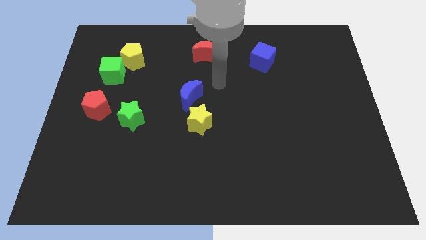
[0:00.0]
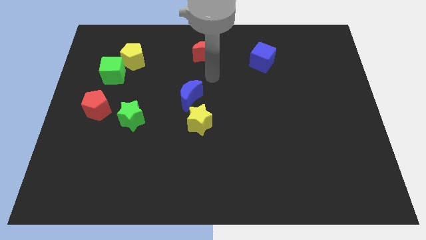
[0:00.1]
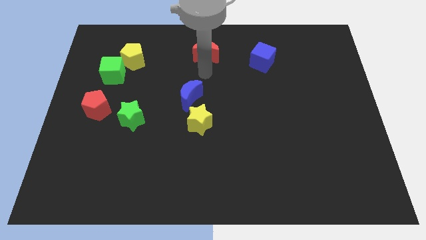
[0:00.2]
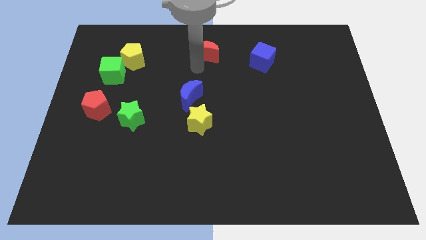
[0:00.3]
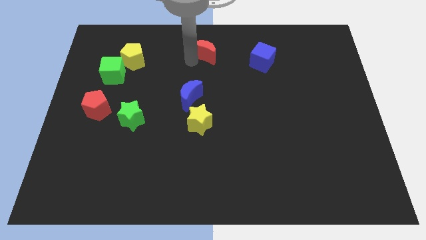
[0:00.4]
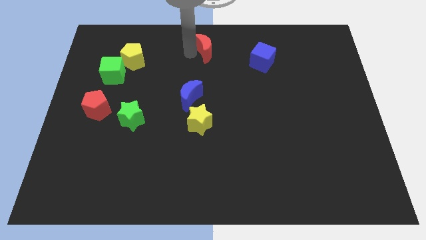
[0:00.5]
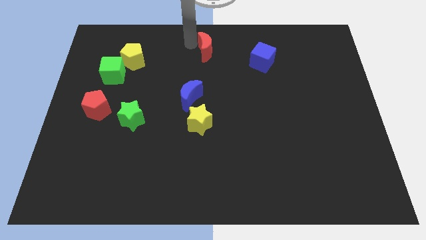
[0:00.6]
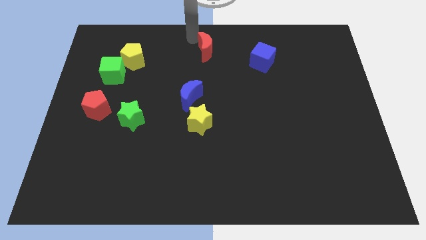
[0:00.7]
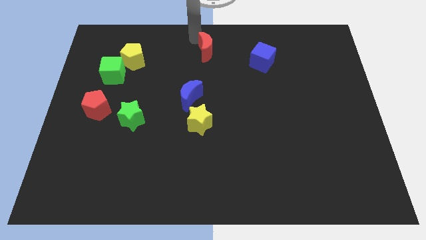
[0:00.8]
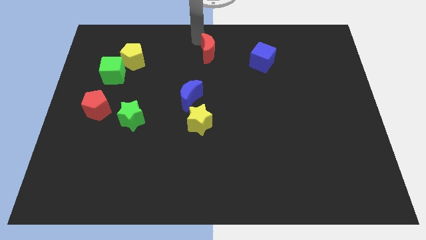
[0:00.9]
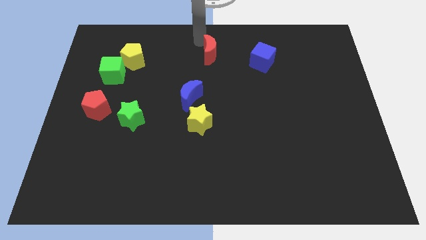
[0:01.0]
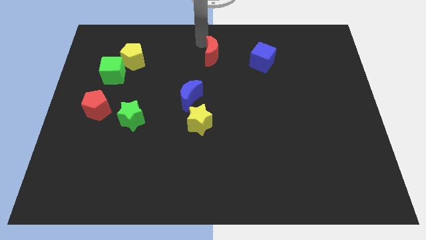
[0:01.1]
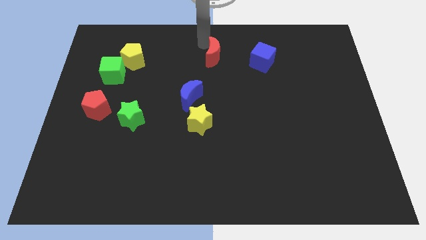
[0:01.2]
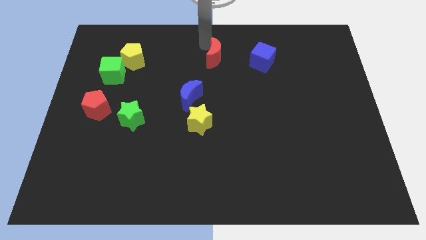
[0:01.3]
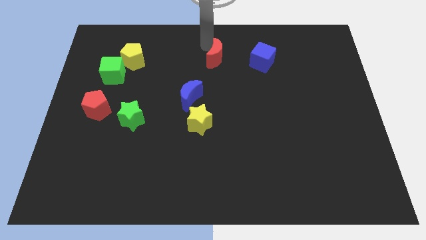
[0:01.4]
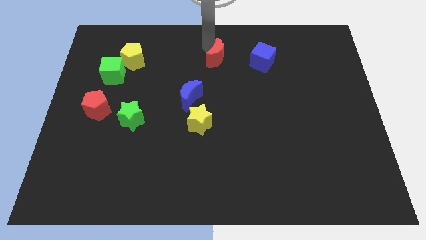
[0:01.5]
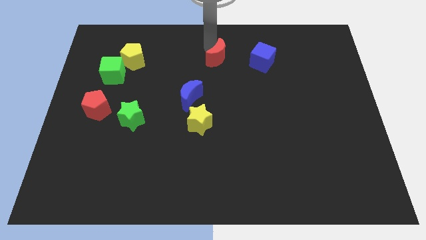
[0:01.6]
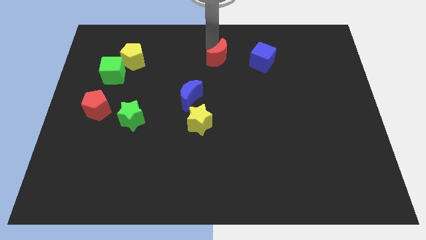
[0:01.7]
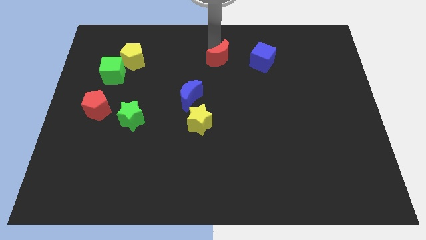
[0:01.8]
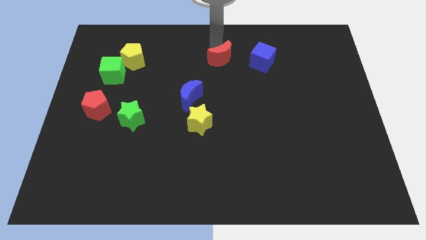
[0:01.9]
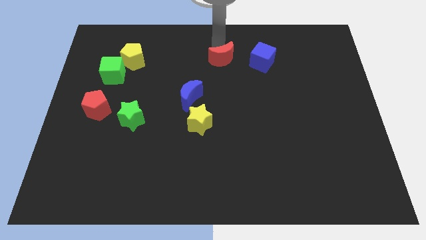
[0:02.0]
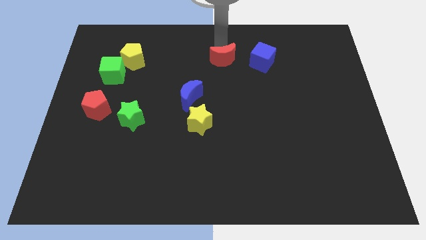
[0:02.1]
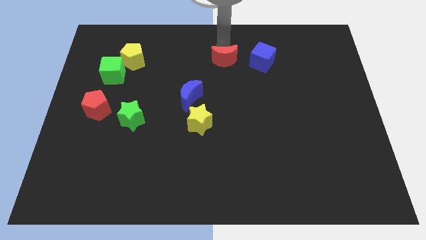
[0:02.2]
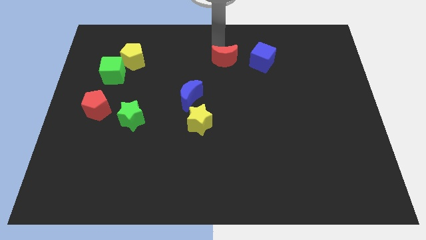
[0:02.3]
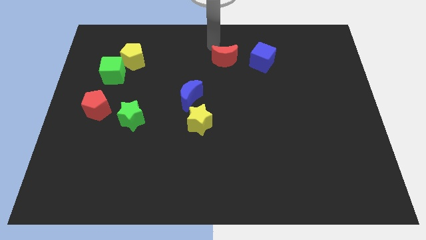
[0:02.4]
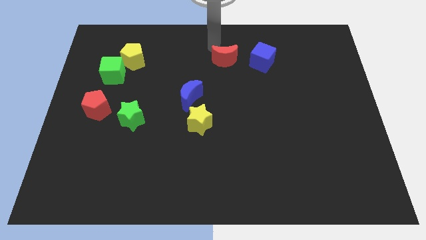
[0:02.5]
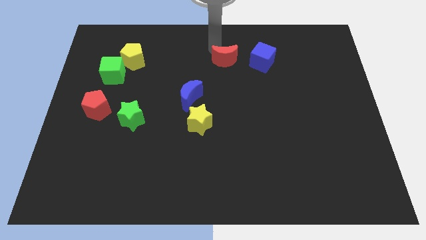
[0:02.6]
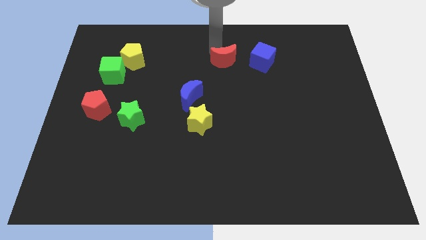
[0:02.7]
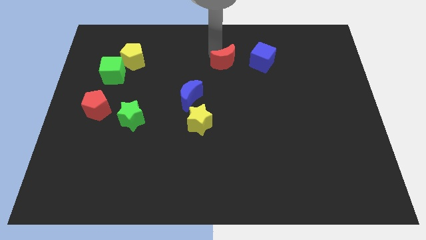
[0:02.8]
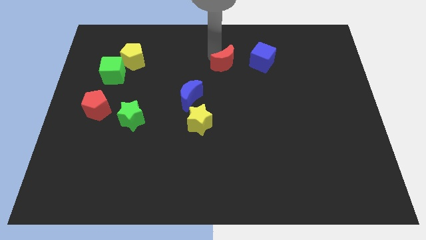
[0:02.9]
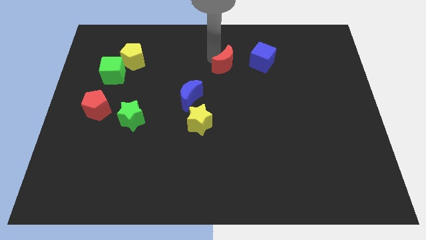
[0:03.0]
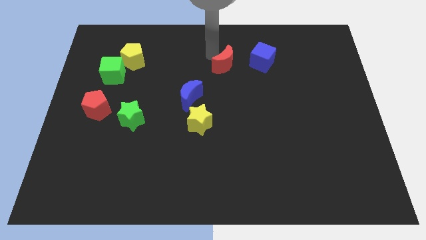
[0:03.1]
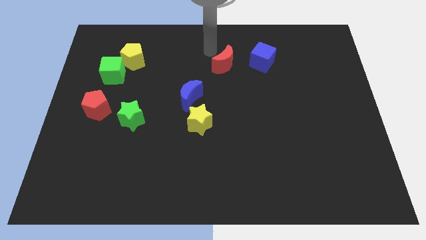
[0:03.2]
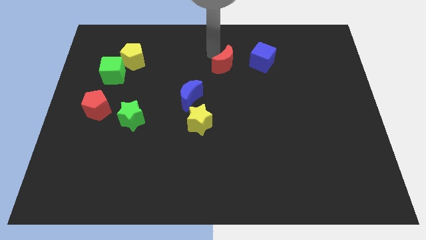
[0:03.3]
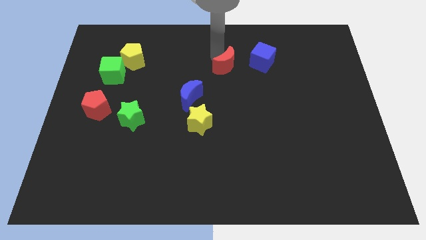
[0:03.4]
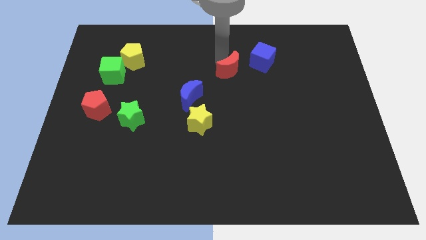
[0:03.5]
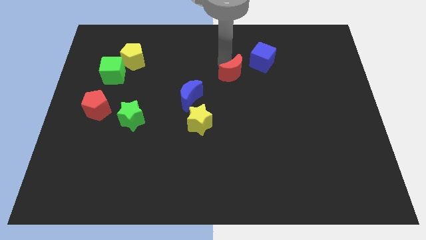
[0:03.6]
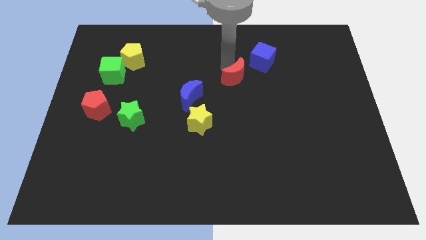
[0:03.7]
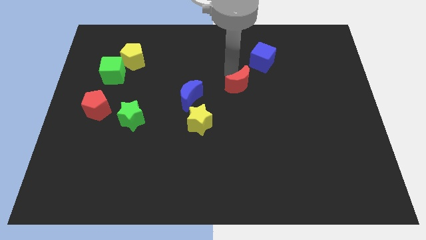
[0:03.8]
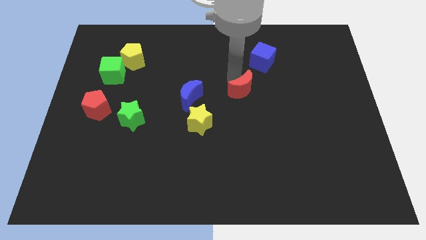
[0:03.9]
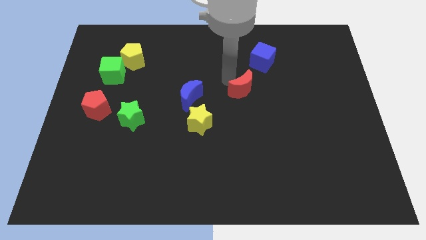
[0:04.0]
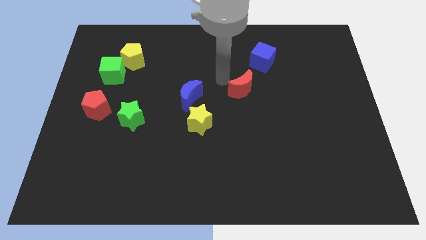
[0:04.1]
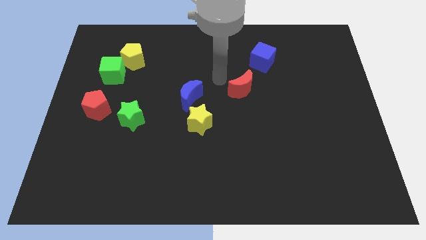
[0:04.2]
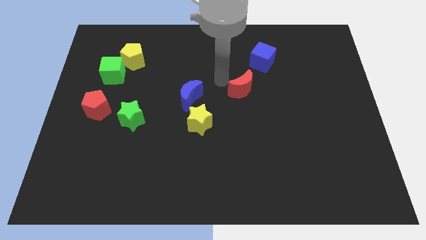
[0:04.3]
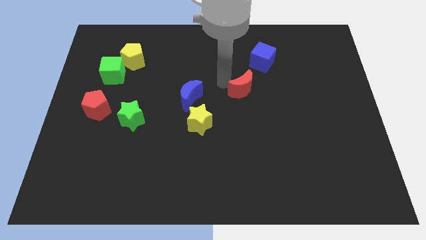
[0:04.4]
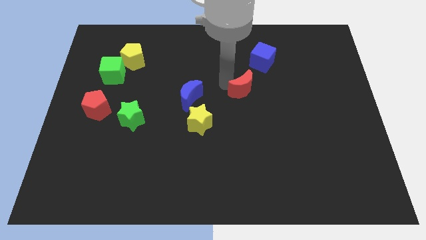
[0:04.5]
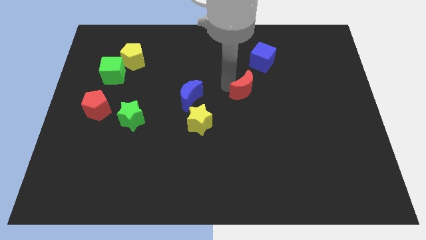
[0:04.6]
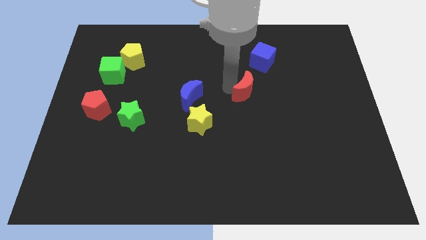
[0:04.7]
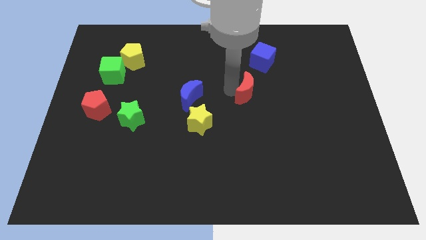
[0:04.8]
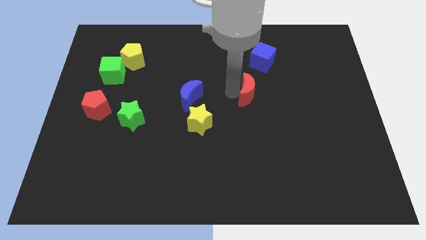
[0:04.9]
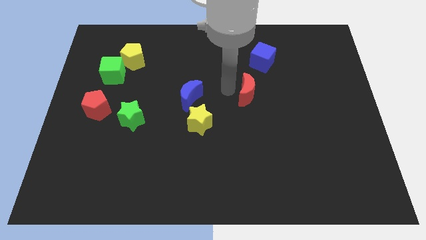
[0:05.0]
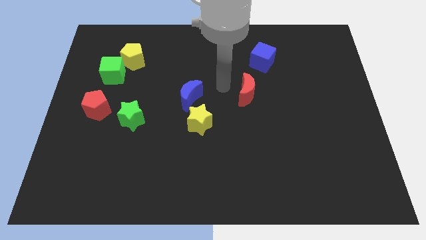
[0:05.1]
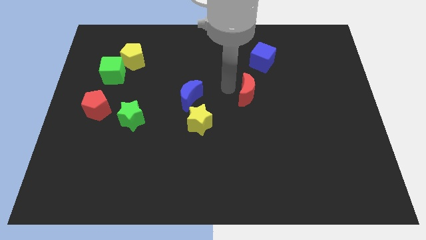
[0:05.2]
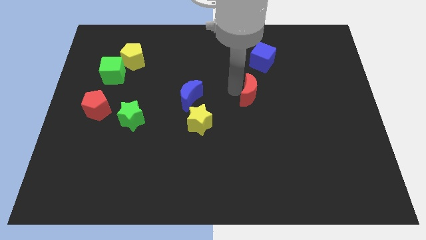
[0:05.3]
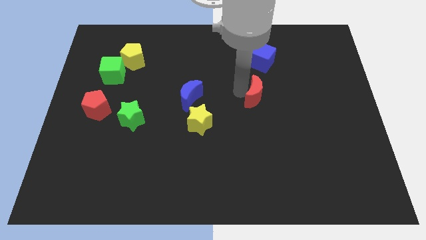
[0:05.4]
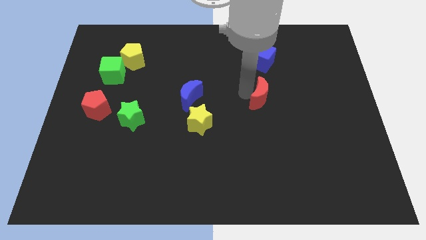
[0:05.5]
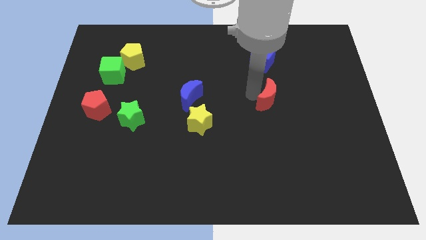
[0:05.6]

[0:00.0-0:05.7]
move the red moon downwards and right

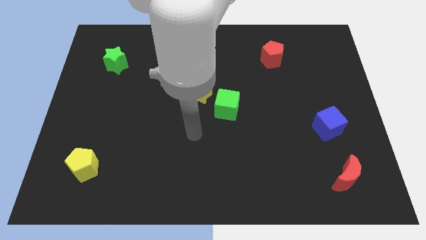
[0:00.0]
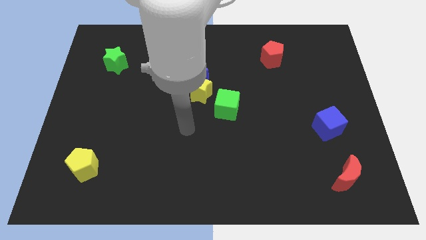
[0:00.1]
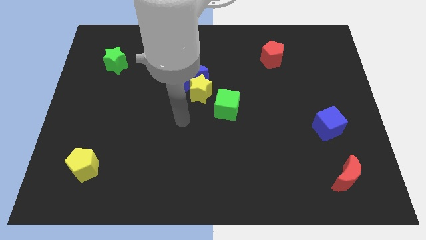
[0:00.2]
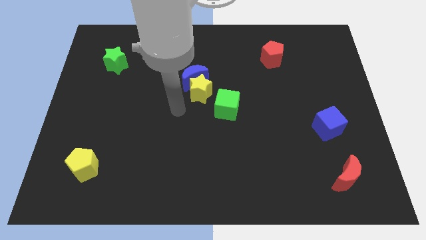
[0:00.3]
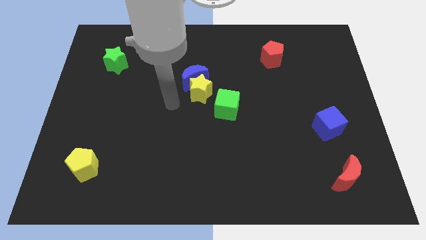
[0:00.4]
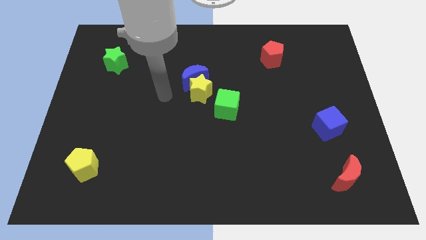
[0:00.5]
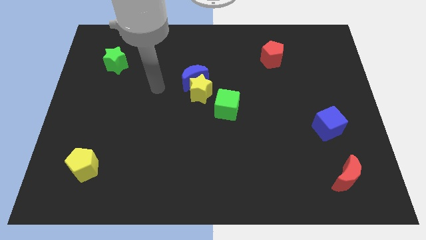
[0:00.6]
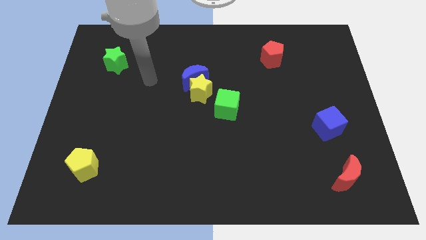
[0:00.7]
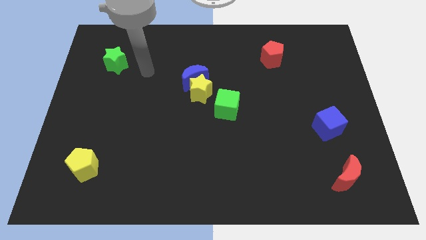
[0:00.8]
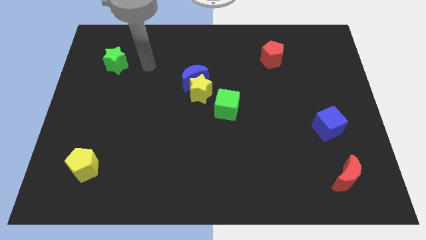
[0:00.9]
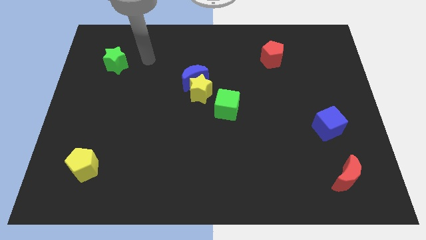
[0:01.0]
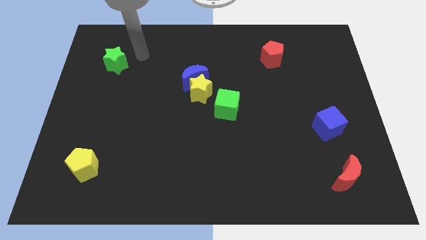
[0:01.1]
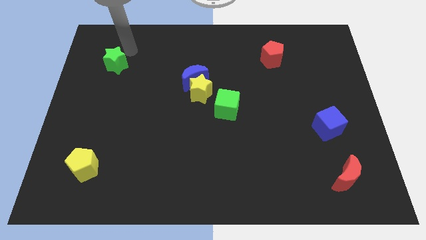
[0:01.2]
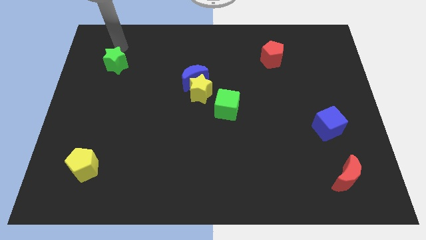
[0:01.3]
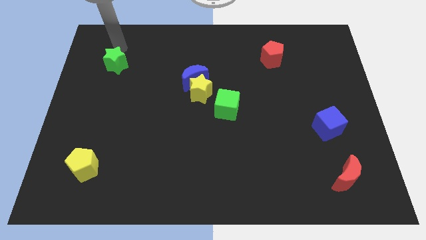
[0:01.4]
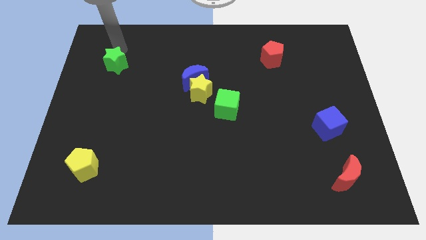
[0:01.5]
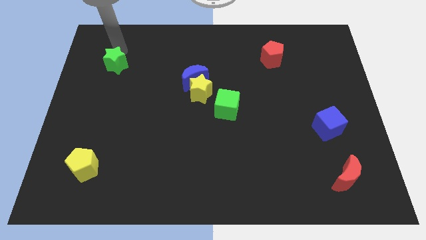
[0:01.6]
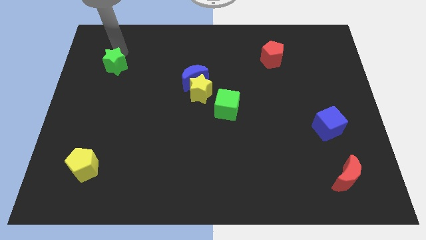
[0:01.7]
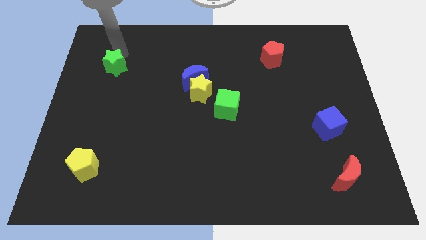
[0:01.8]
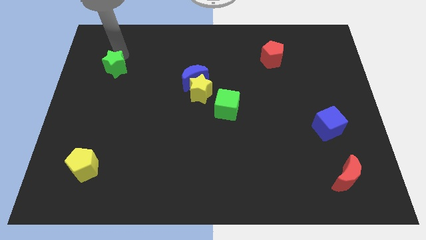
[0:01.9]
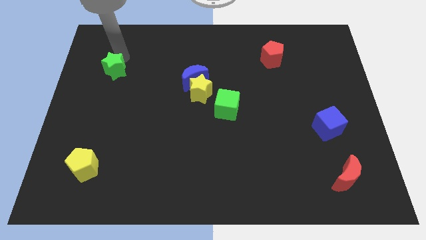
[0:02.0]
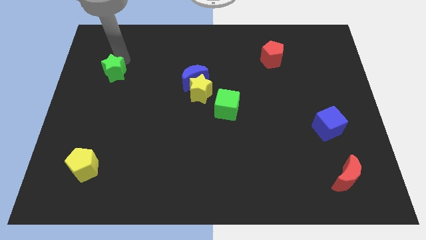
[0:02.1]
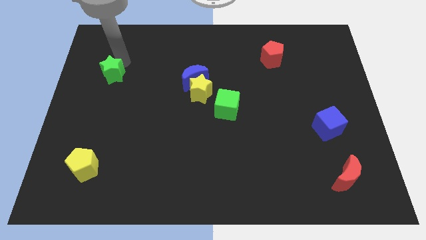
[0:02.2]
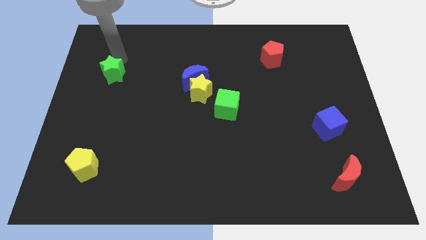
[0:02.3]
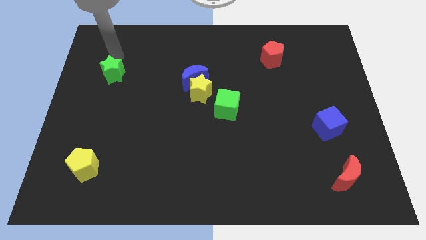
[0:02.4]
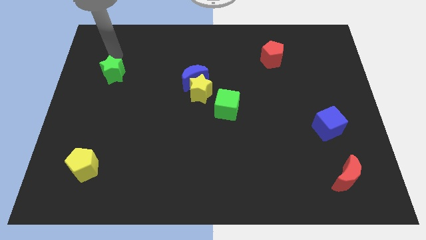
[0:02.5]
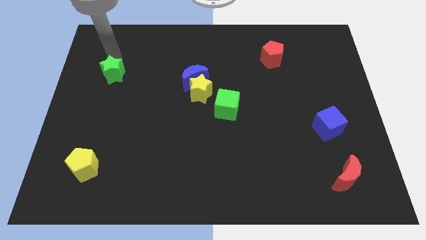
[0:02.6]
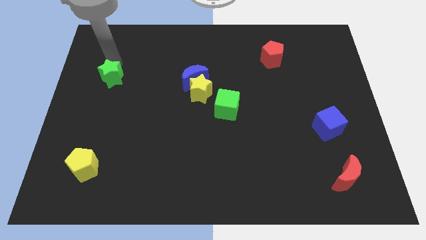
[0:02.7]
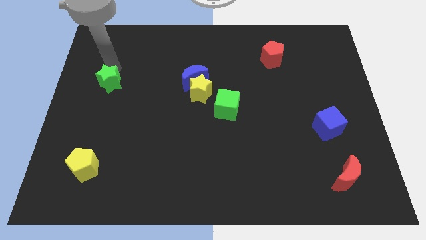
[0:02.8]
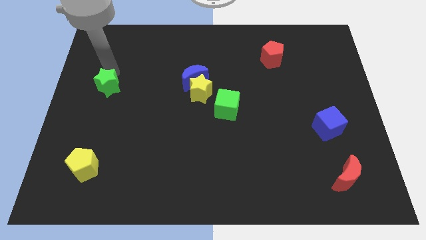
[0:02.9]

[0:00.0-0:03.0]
slide the green star somewhat downwards
